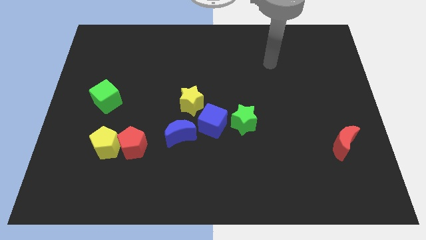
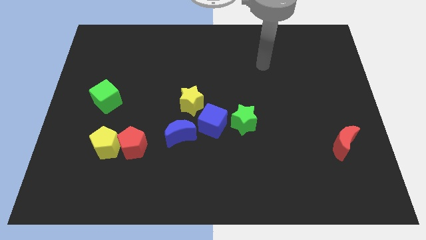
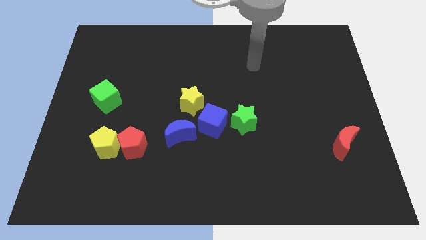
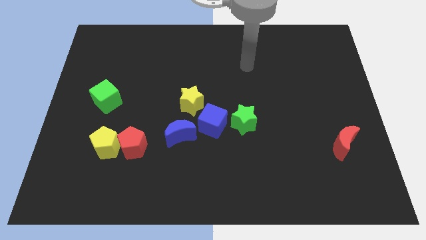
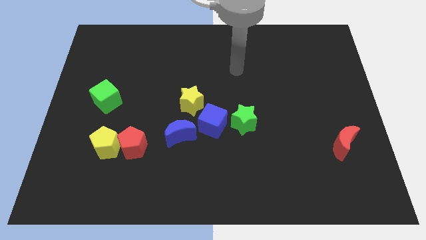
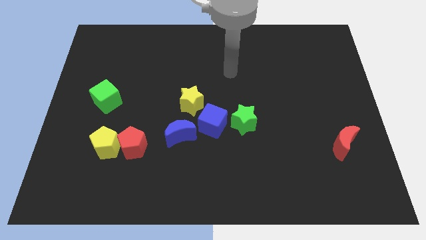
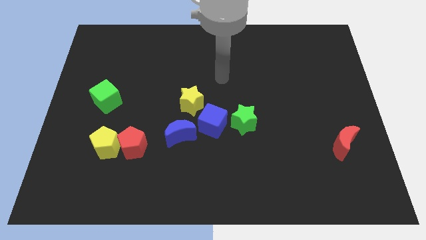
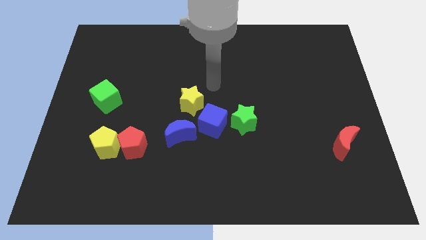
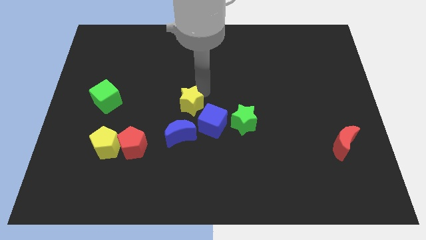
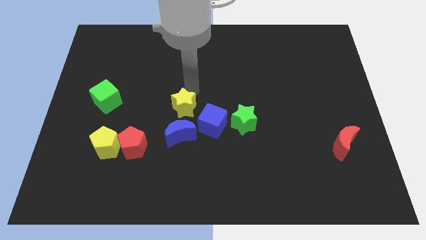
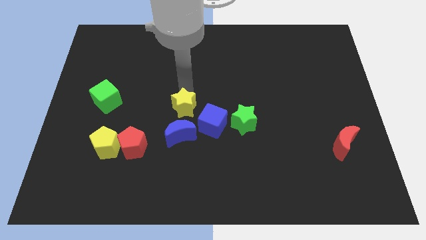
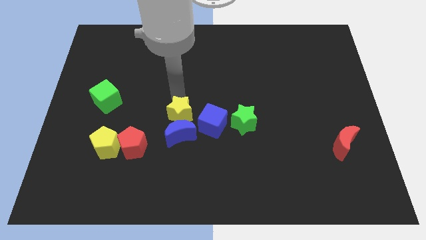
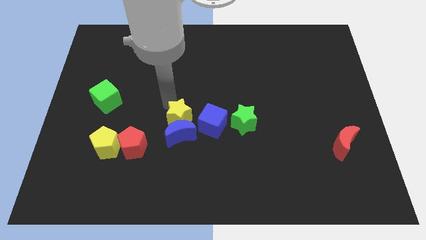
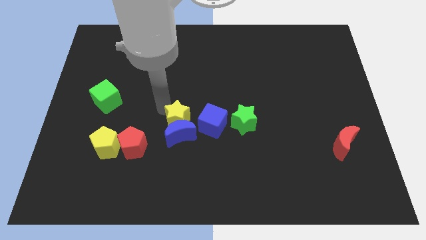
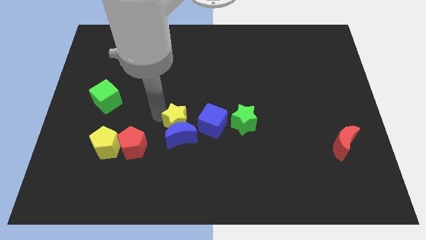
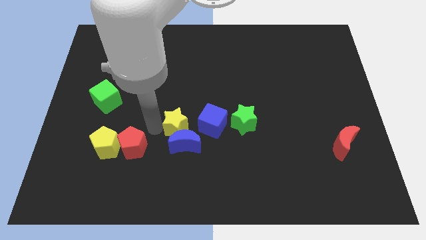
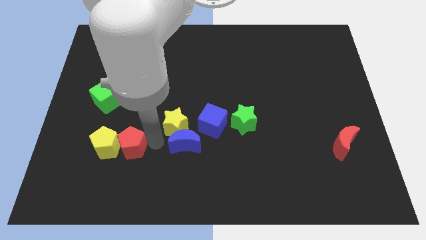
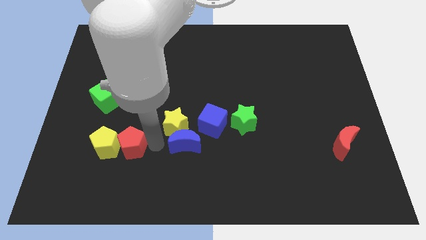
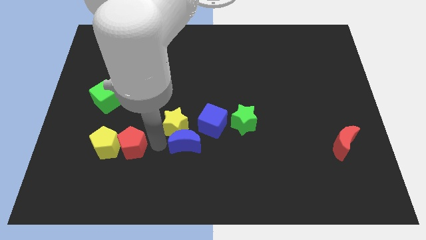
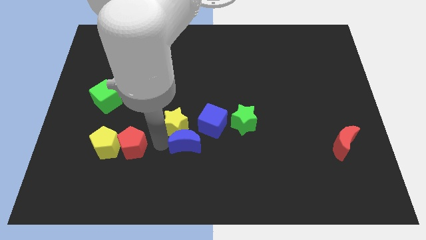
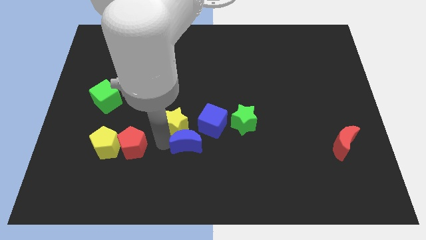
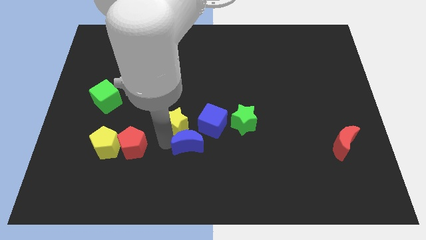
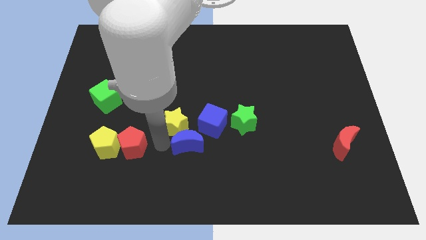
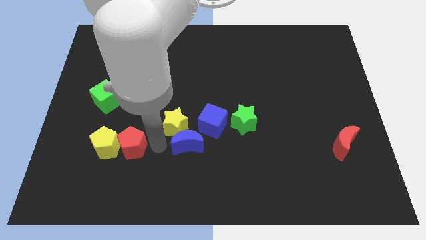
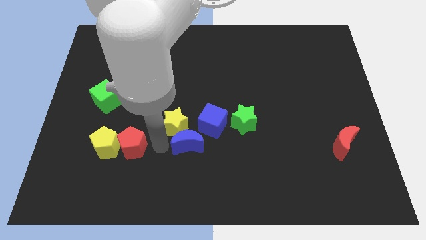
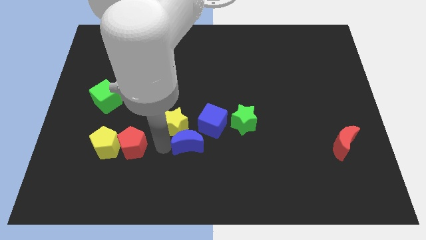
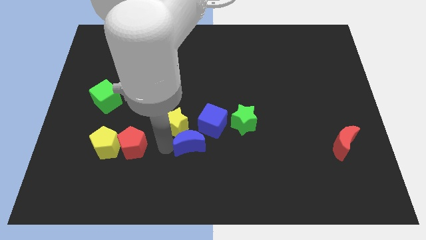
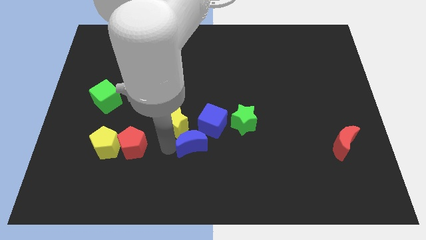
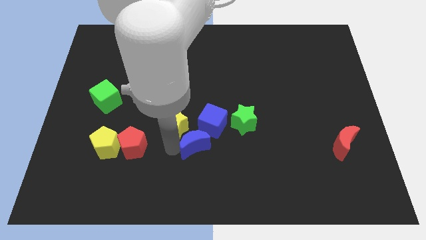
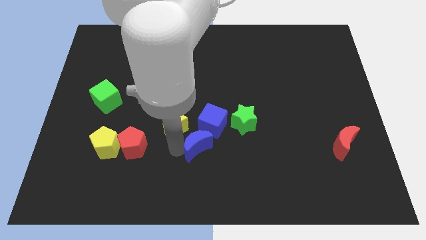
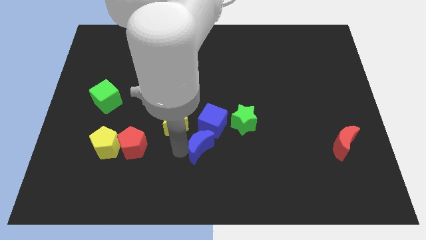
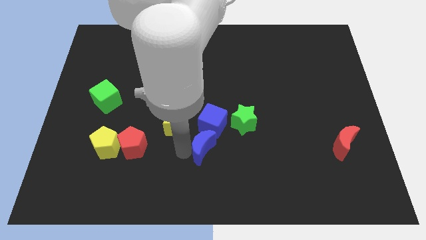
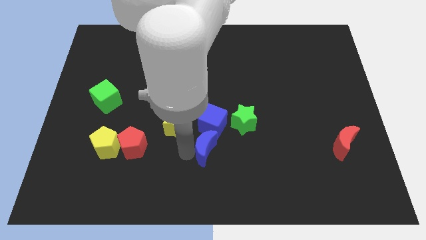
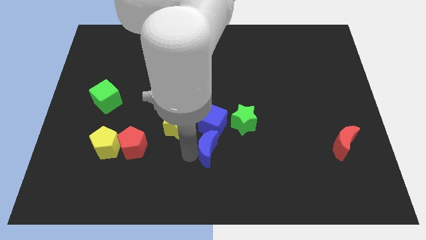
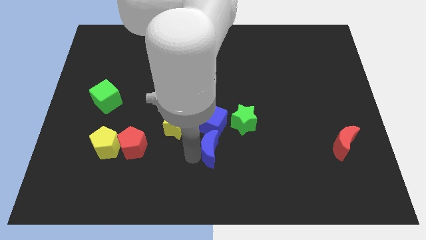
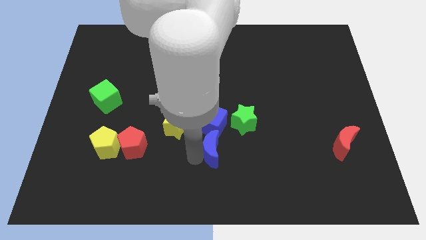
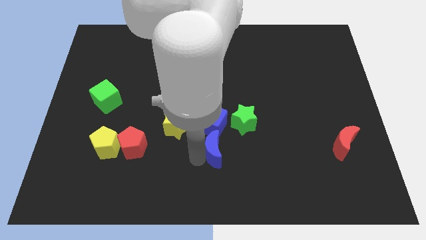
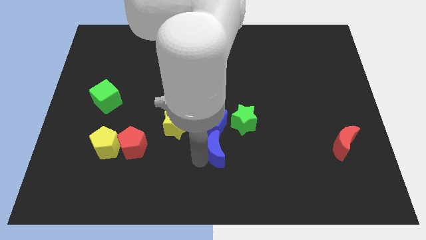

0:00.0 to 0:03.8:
slightly move the blue moon right

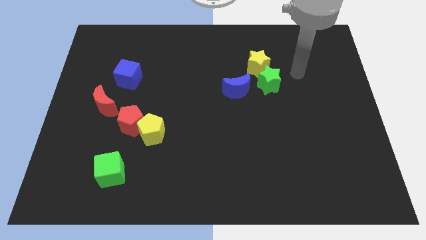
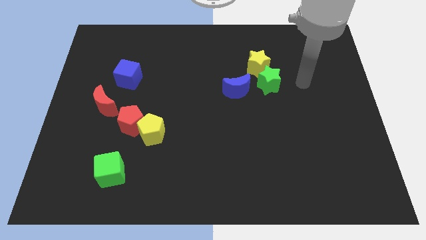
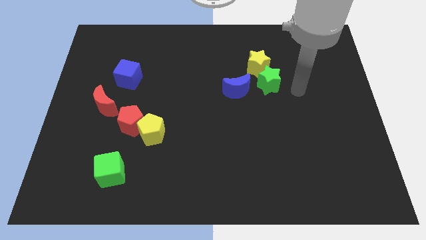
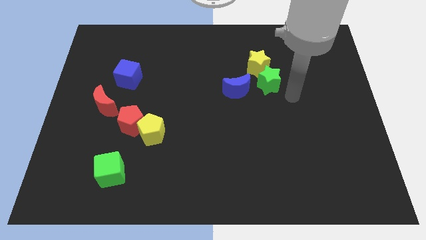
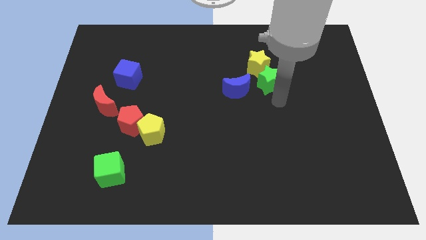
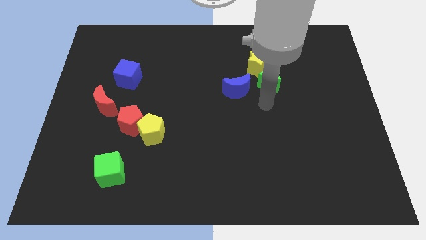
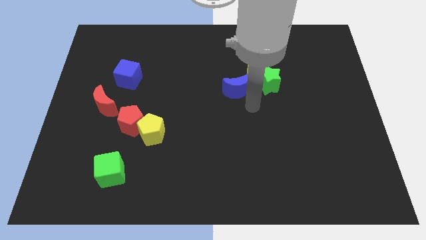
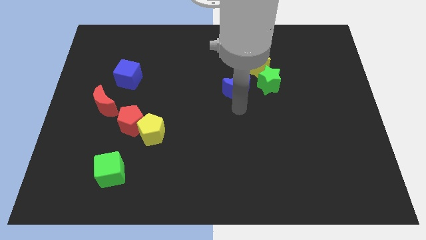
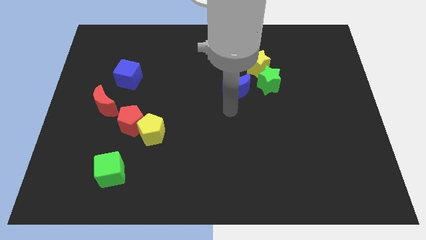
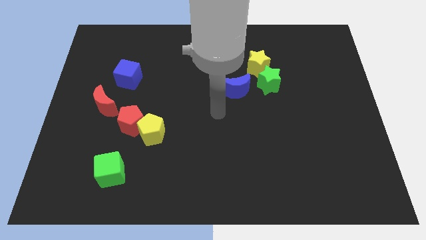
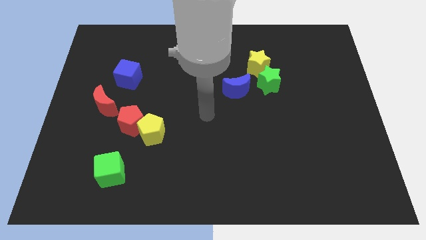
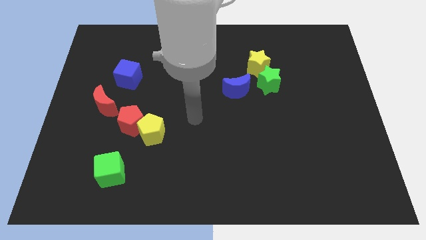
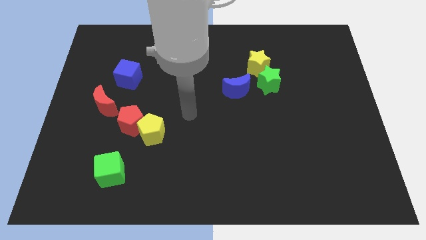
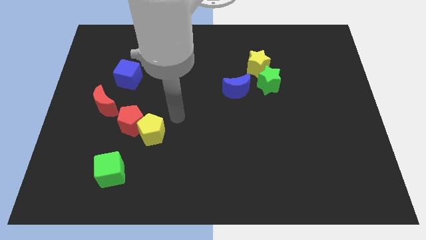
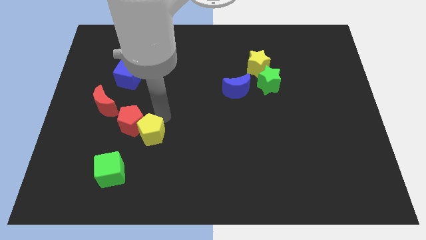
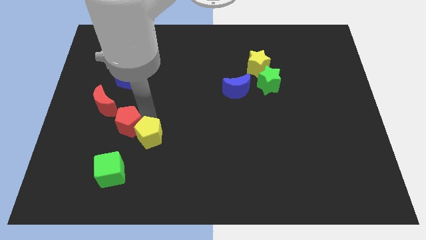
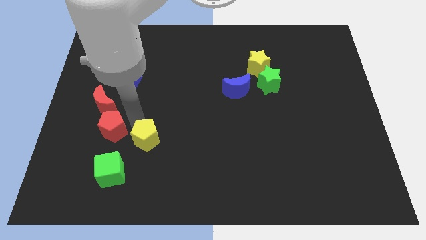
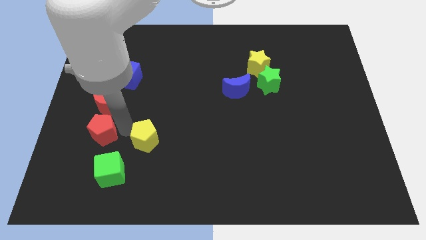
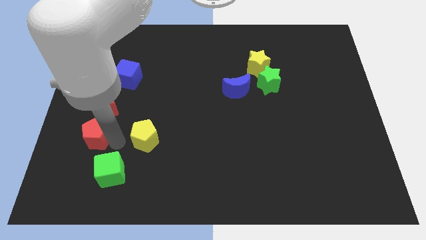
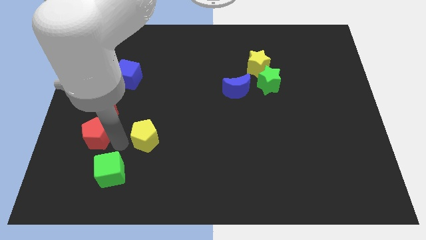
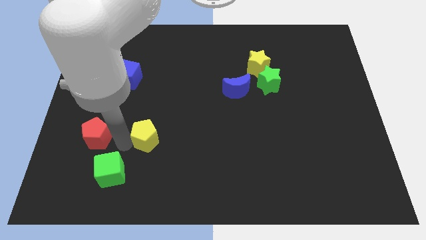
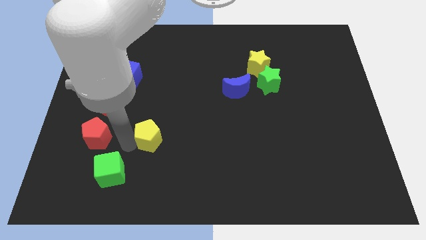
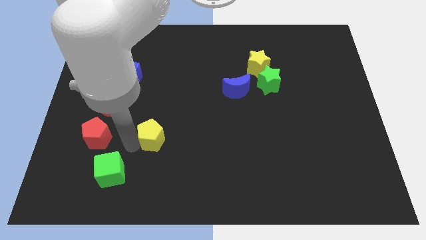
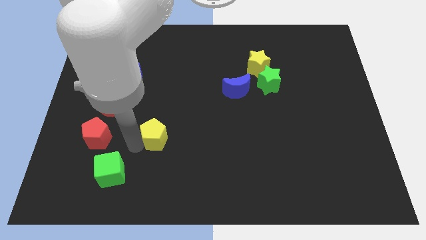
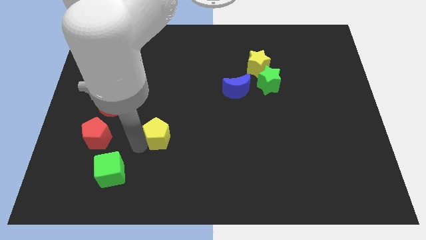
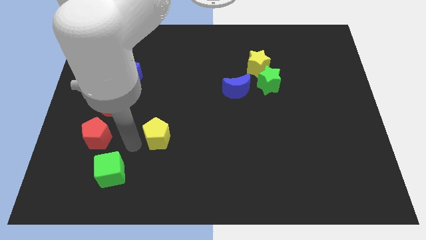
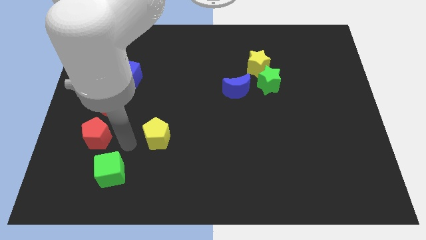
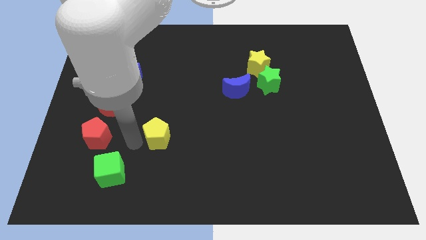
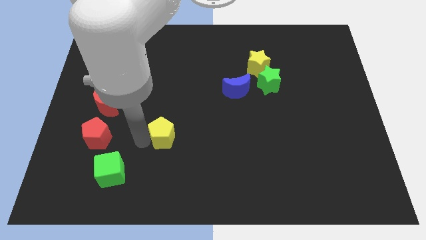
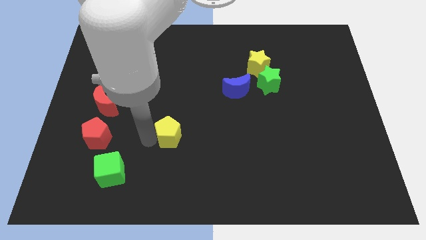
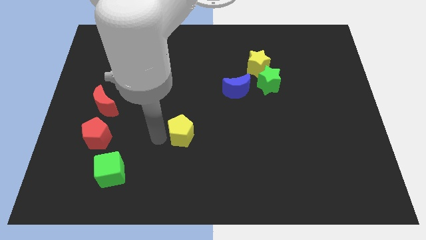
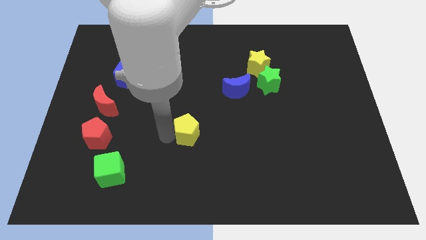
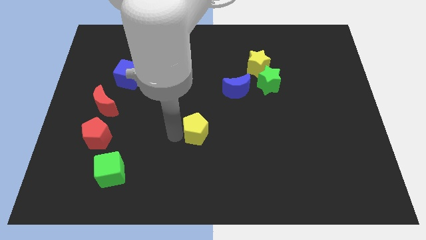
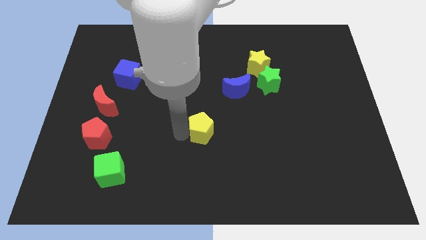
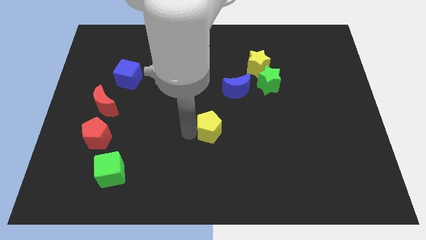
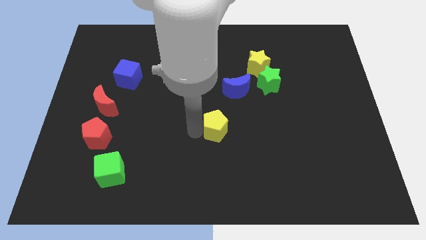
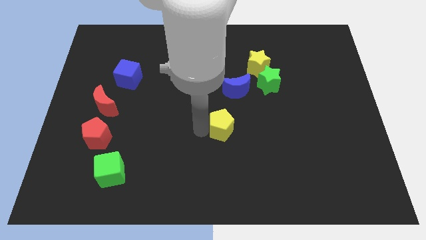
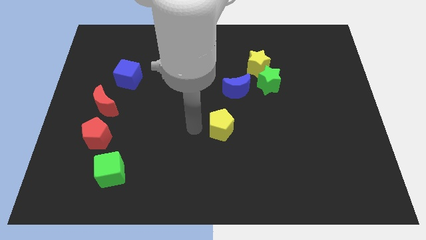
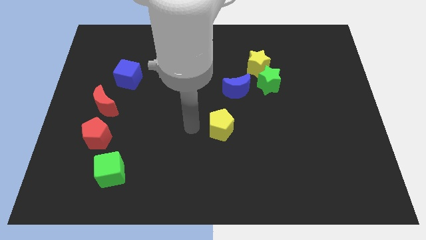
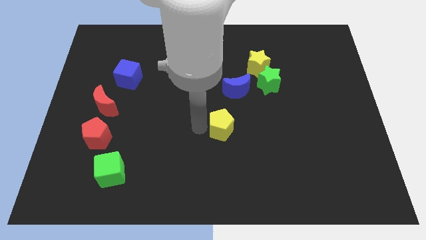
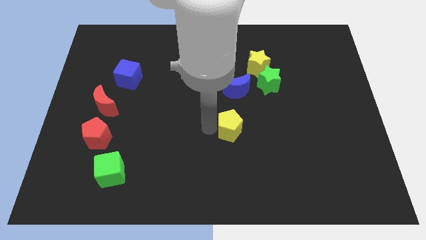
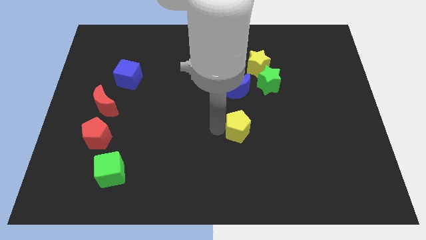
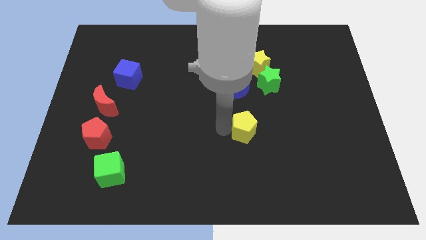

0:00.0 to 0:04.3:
slide the yellow pentagon right
